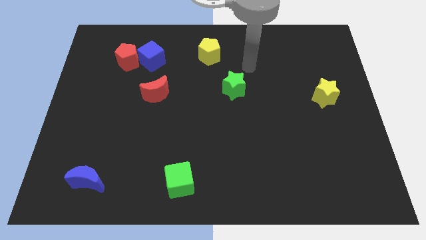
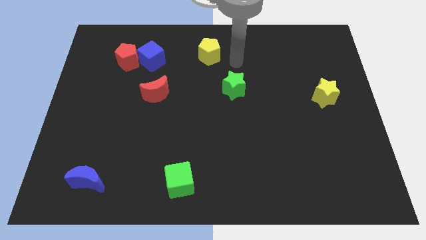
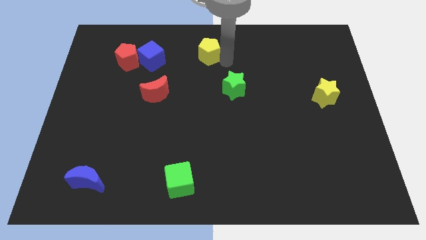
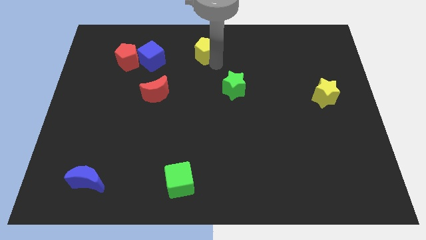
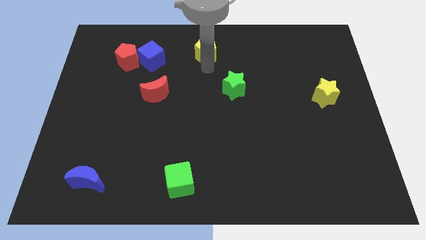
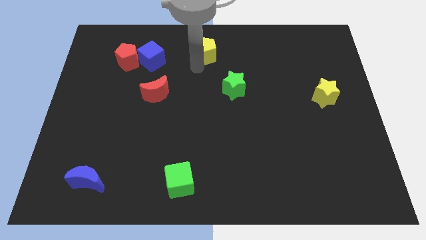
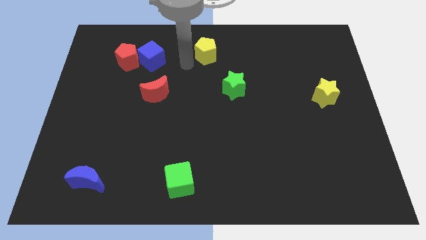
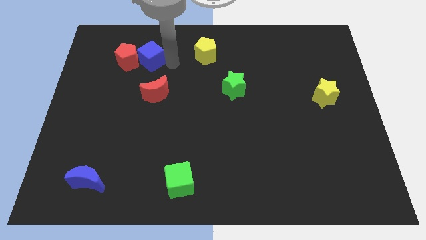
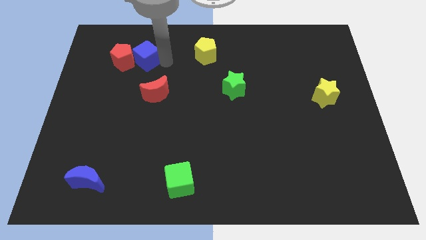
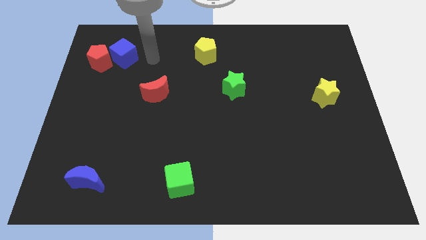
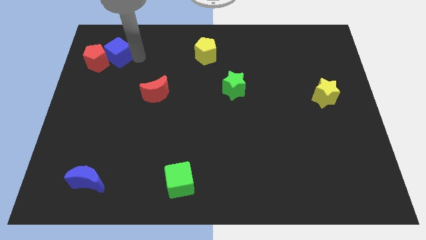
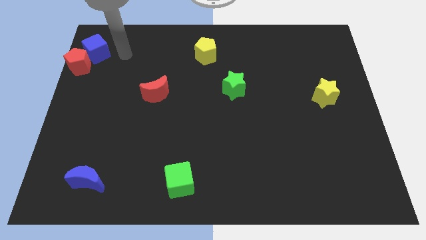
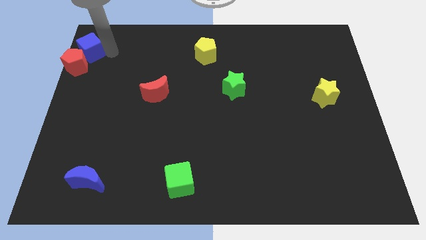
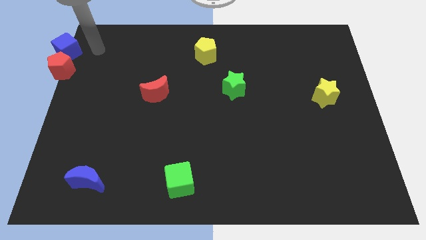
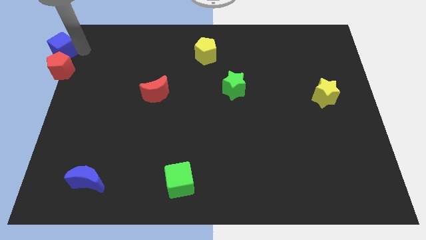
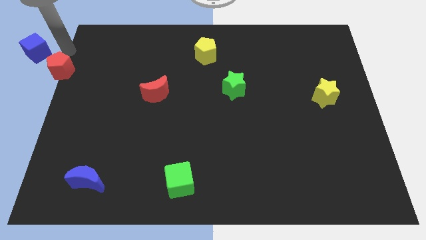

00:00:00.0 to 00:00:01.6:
move the red pentagon away from the blue cube

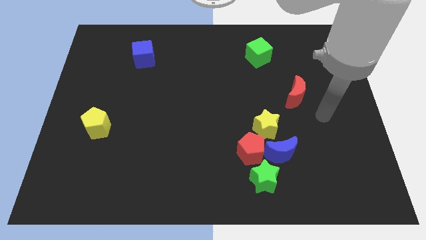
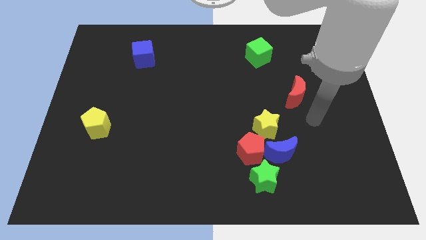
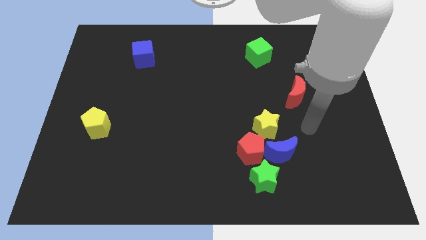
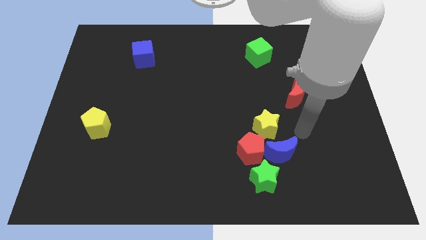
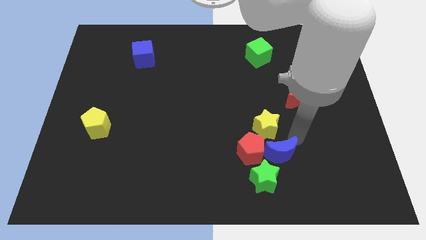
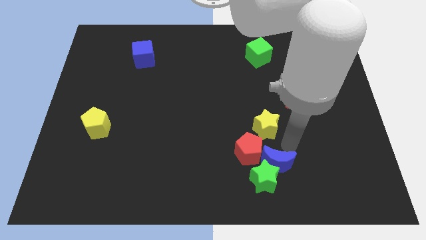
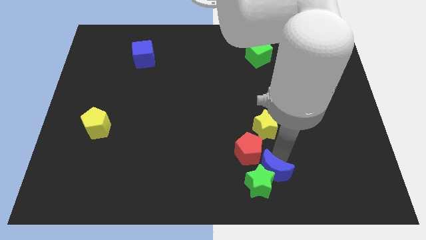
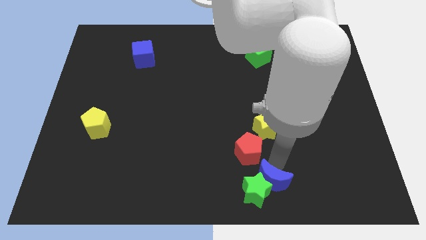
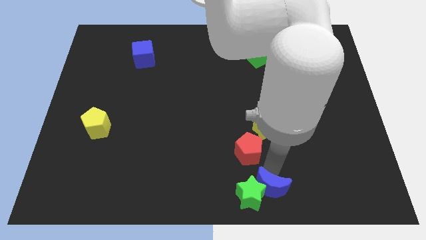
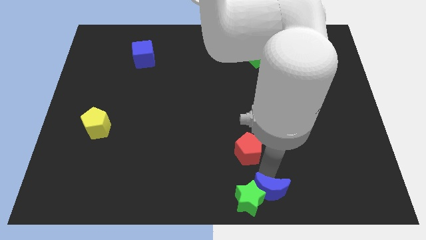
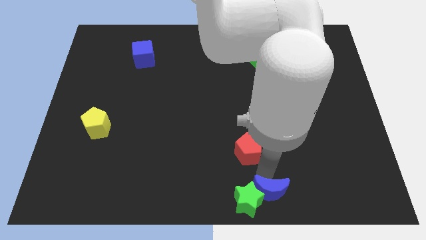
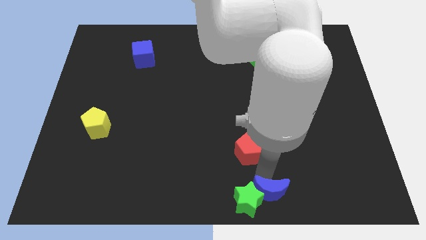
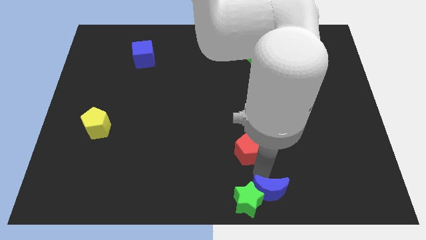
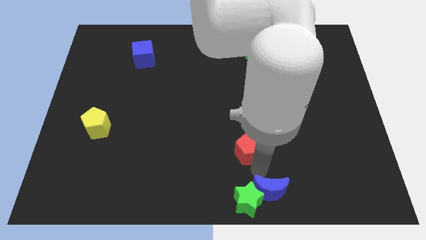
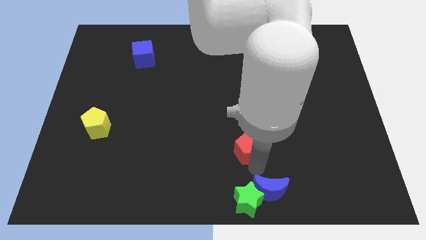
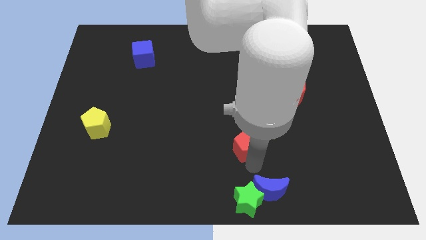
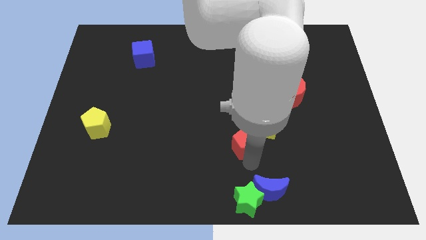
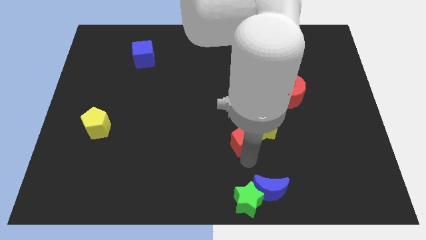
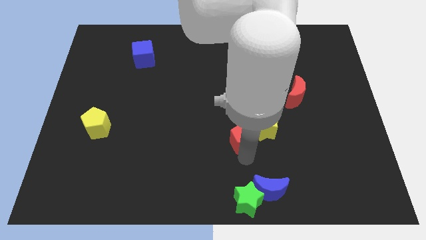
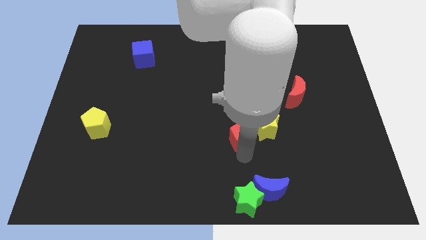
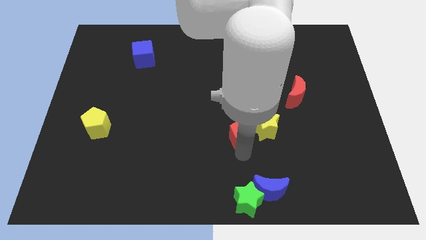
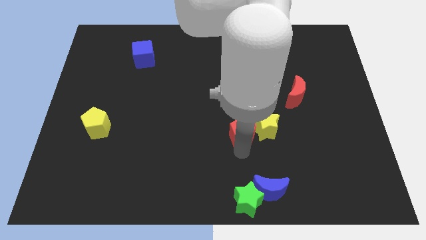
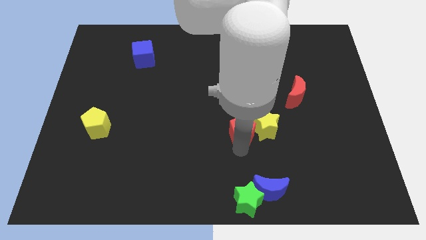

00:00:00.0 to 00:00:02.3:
pull the red pentagon apart from the blue moon, yellow star, and green star

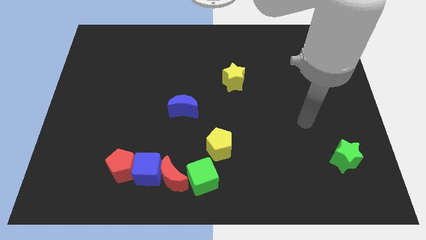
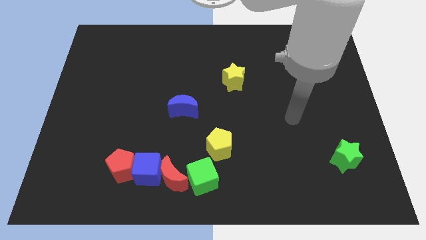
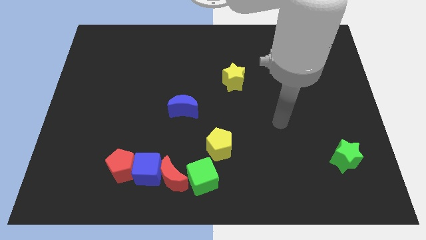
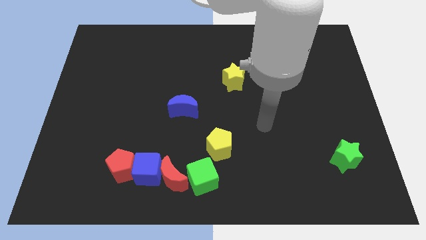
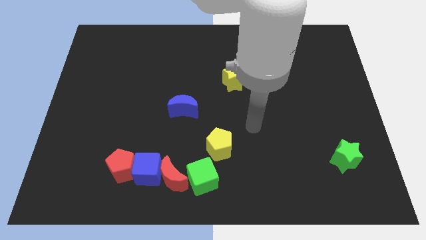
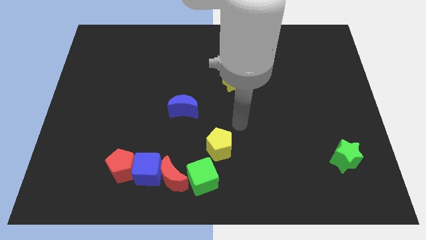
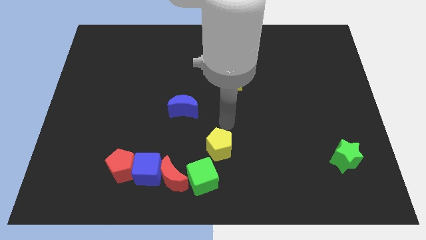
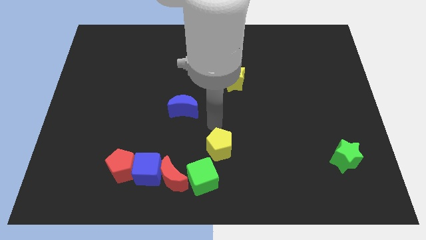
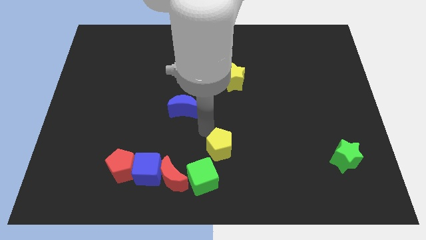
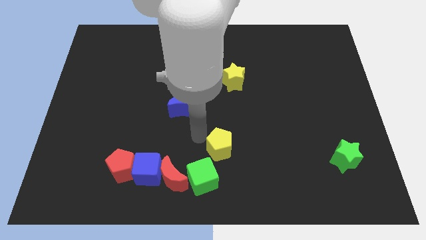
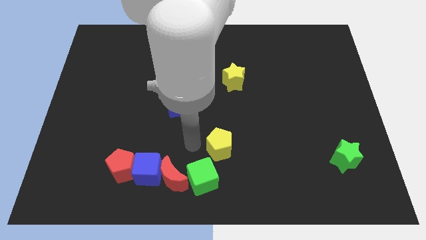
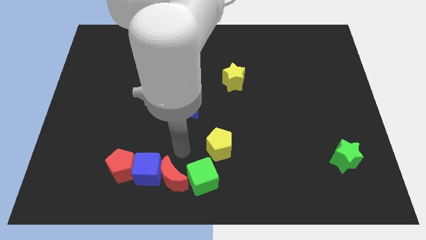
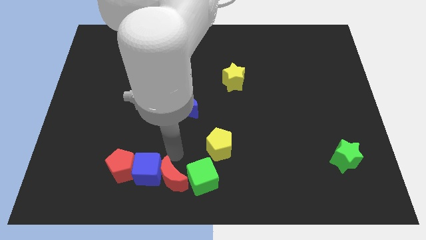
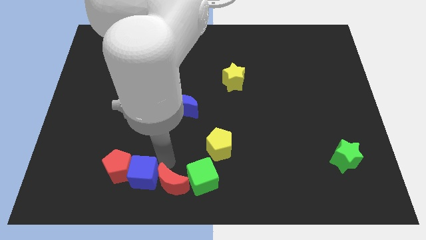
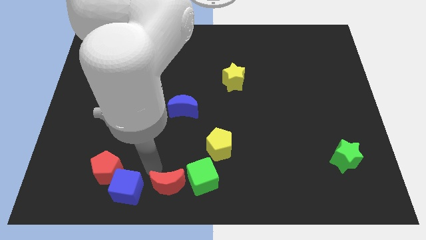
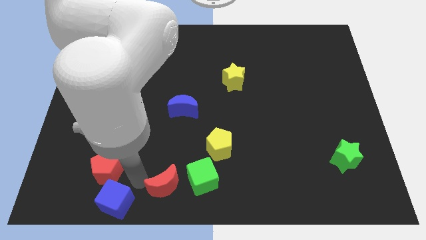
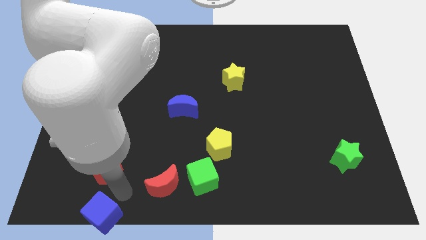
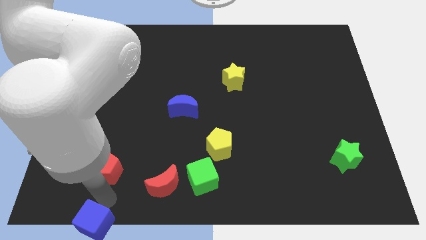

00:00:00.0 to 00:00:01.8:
separate the red pentagon from the blue cube

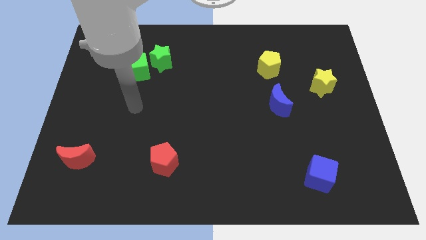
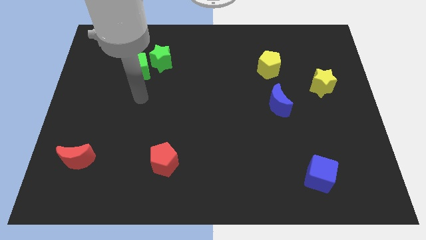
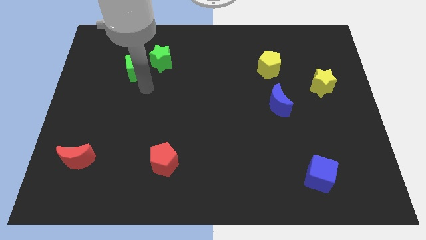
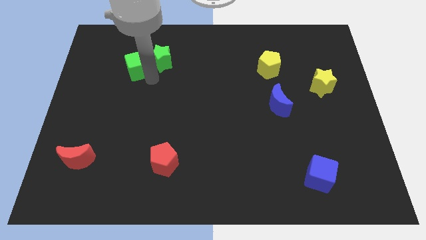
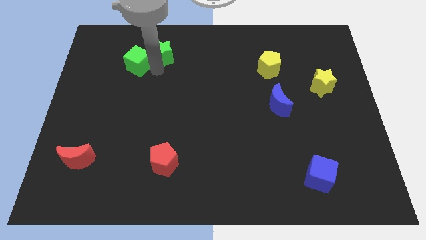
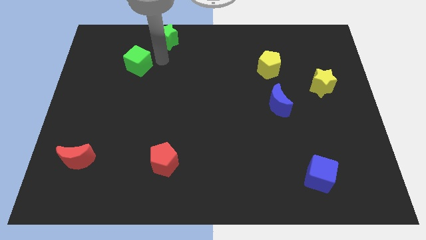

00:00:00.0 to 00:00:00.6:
separate the green cube from the green star

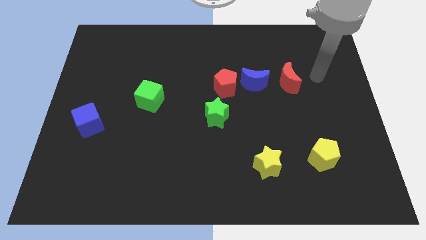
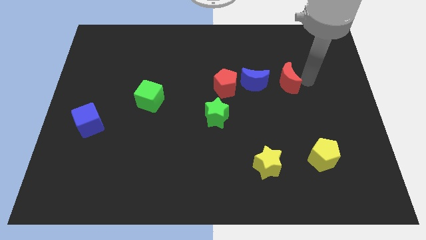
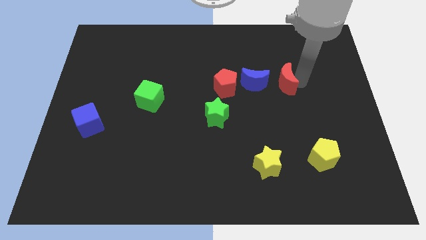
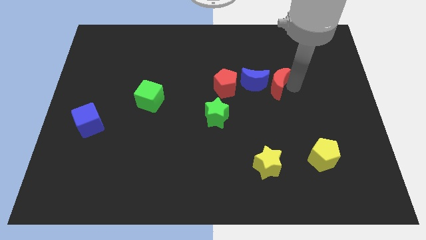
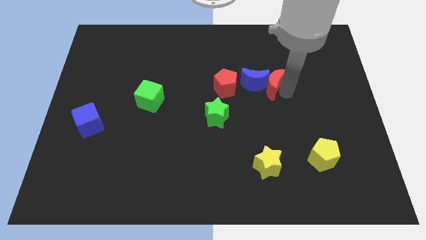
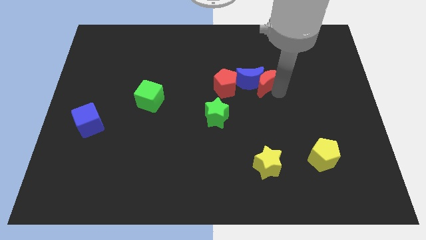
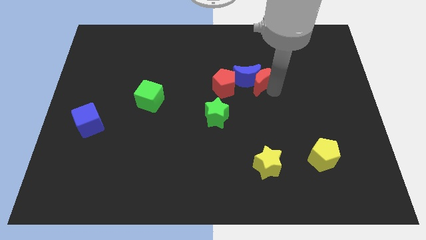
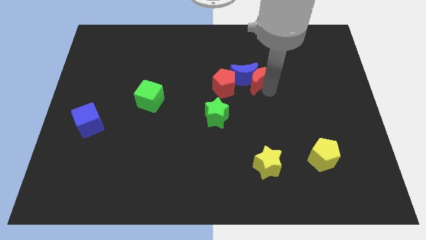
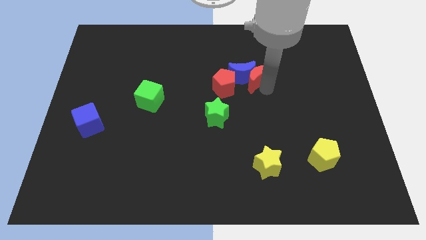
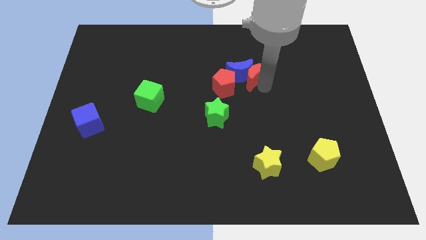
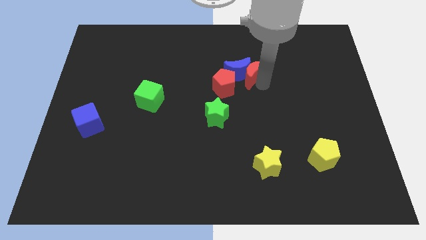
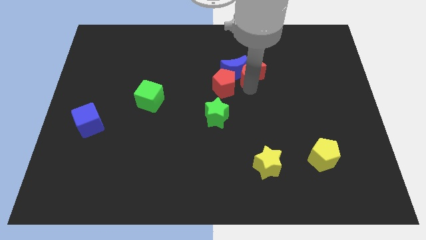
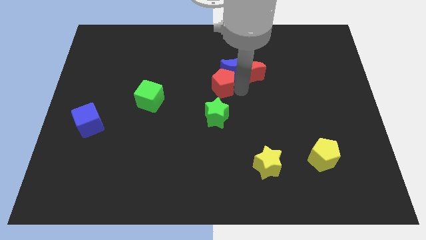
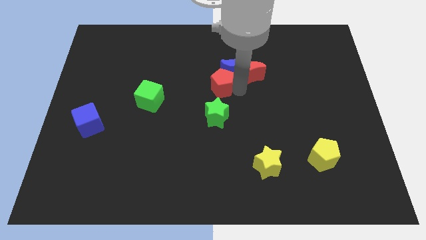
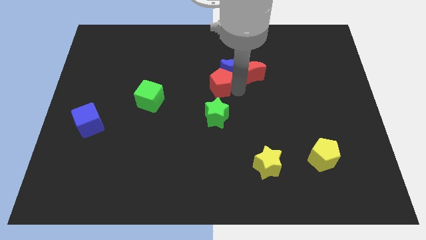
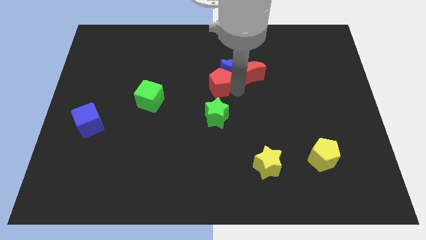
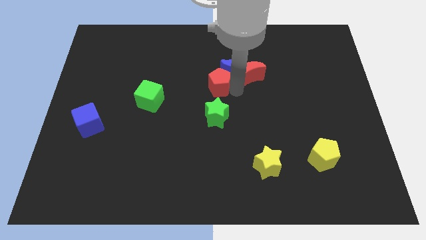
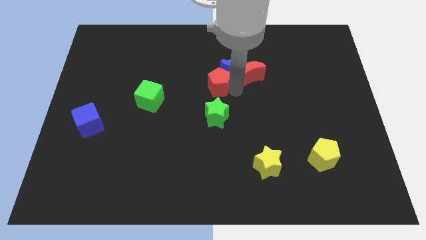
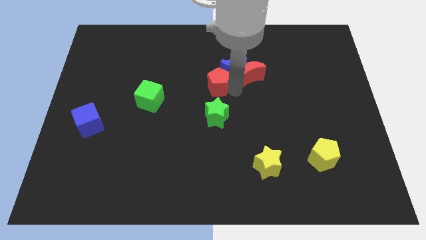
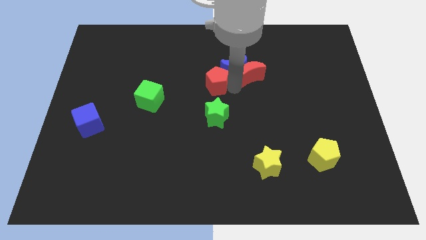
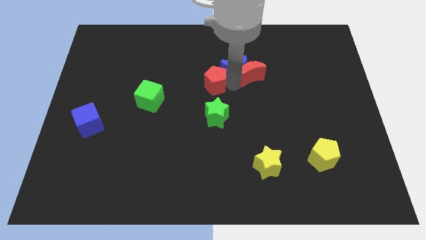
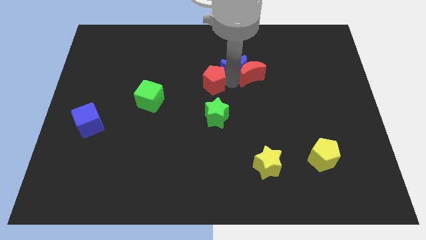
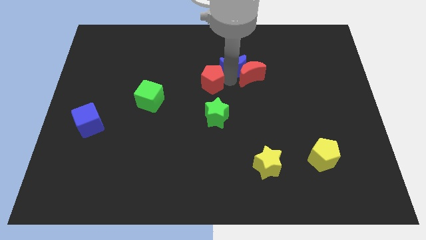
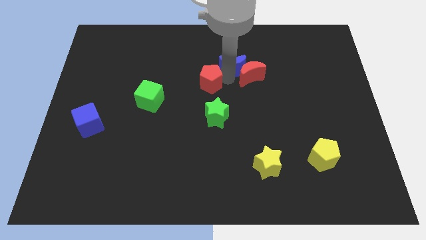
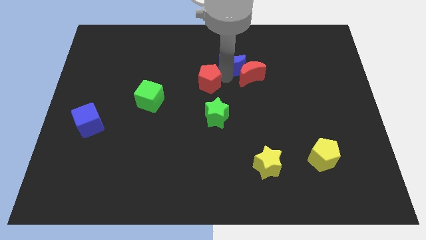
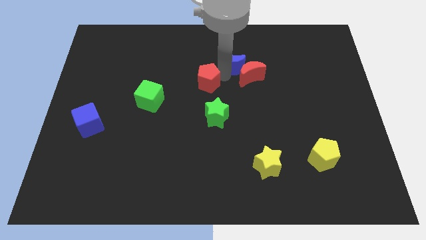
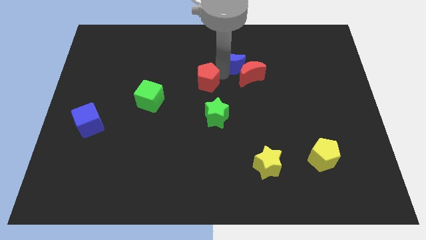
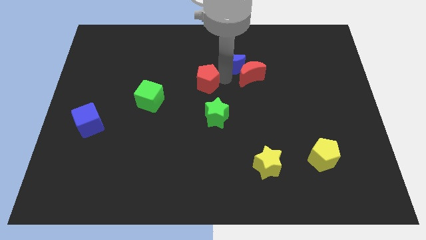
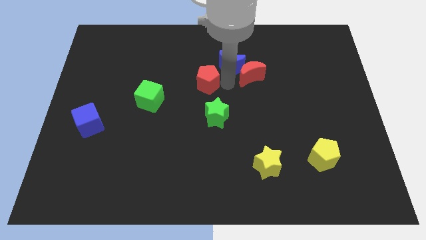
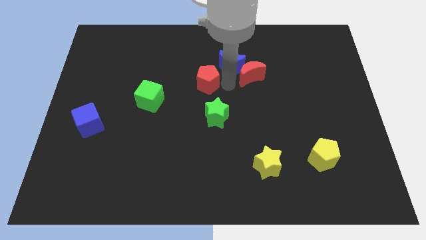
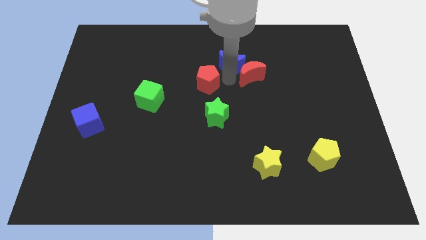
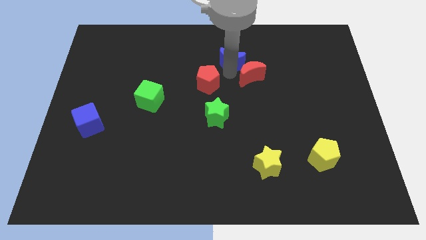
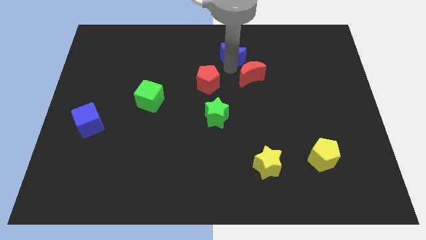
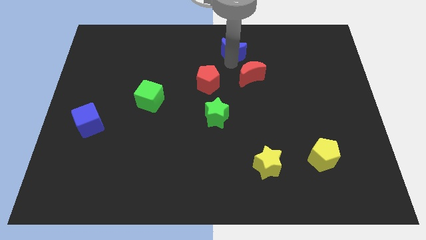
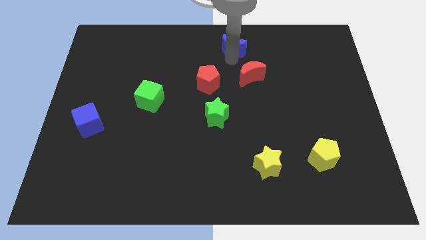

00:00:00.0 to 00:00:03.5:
separate the blue moon from the red pentagon and red moon
